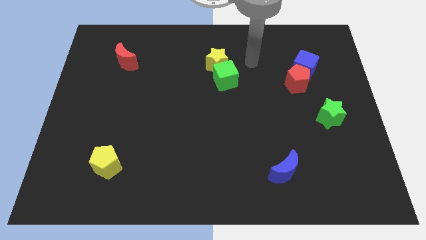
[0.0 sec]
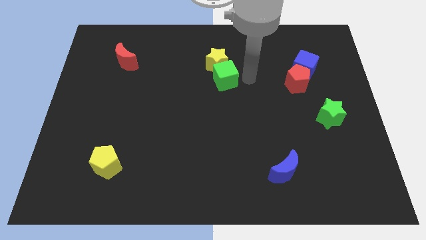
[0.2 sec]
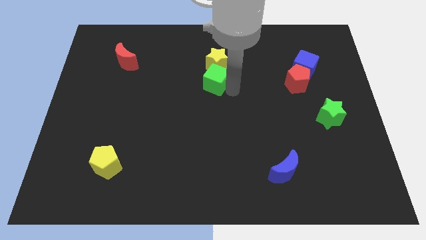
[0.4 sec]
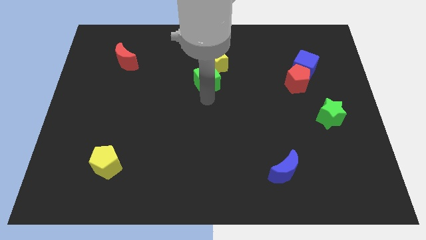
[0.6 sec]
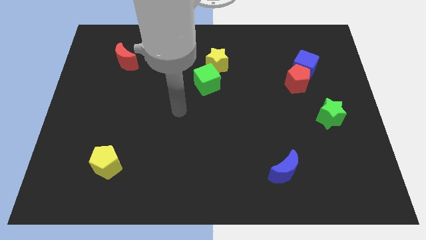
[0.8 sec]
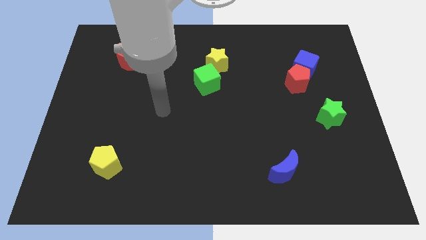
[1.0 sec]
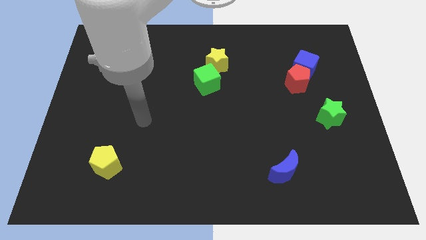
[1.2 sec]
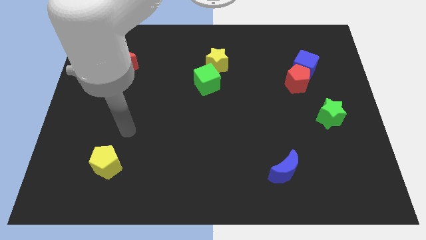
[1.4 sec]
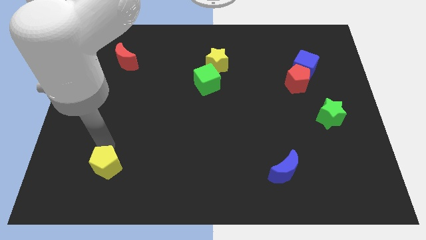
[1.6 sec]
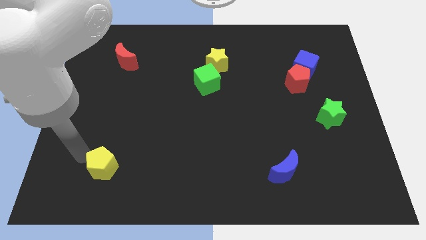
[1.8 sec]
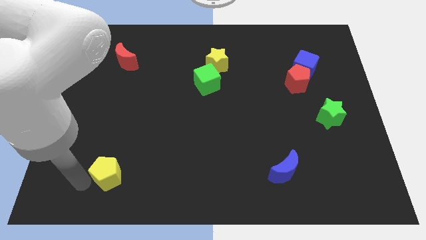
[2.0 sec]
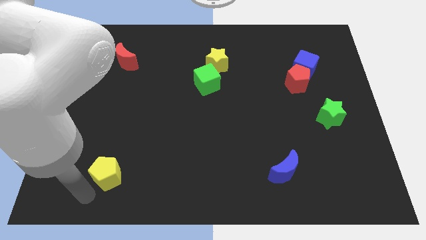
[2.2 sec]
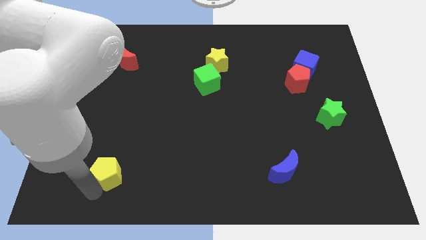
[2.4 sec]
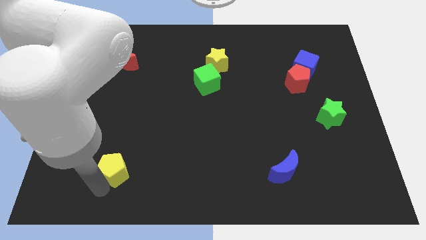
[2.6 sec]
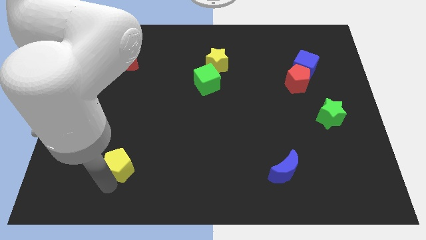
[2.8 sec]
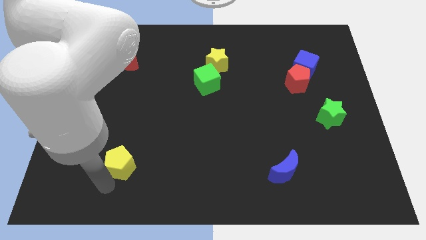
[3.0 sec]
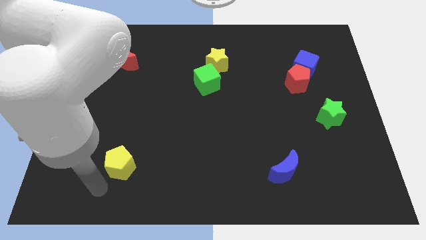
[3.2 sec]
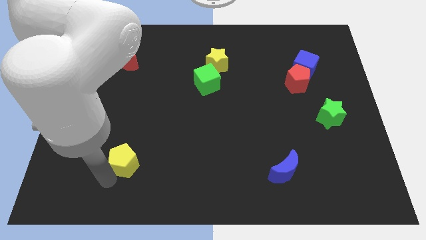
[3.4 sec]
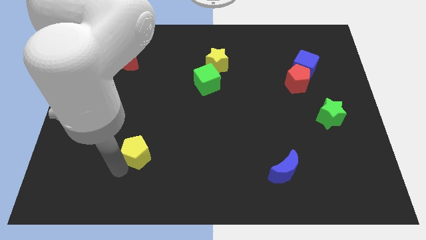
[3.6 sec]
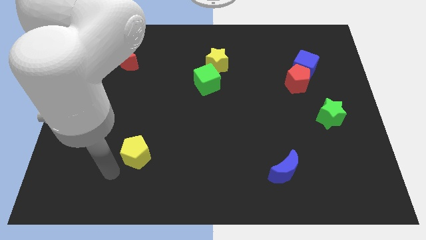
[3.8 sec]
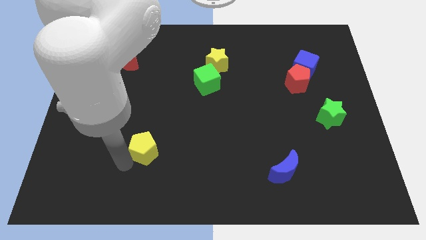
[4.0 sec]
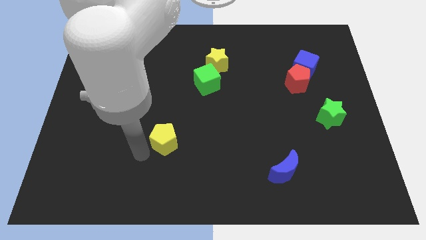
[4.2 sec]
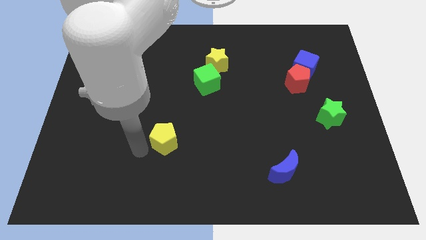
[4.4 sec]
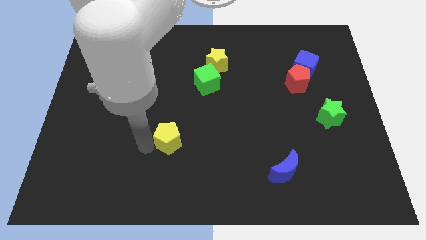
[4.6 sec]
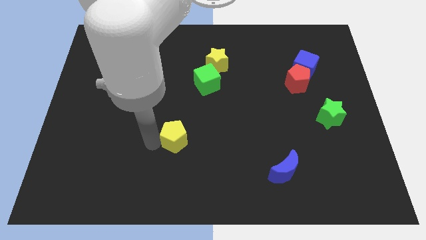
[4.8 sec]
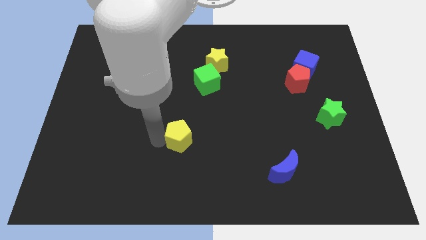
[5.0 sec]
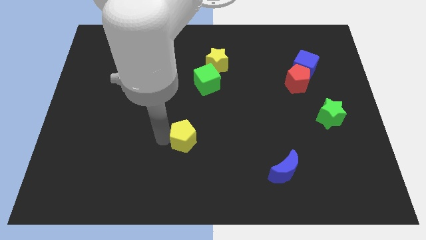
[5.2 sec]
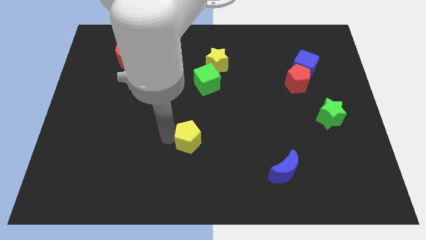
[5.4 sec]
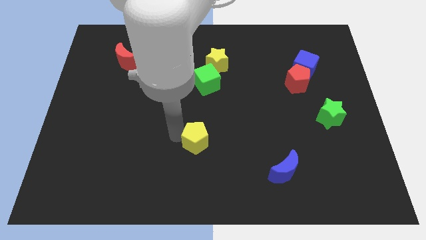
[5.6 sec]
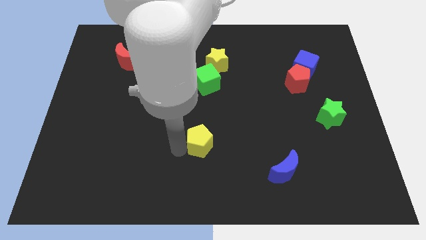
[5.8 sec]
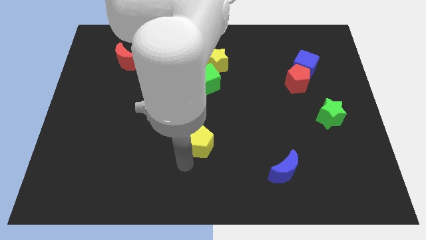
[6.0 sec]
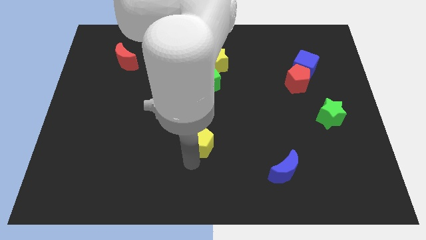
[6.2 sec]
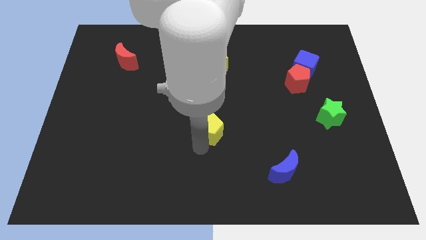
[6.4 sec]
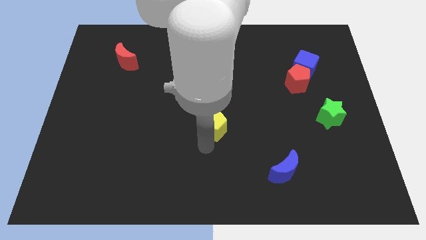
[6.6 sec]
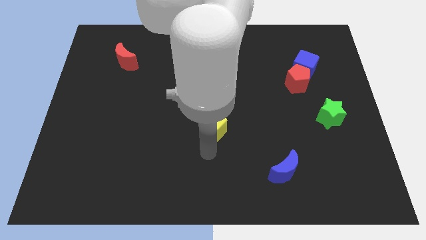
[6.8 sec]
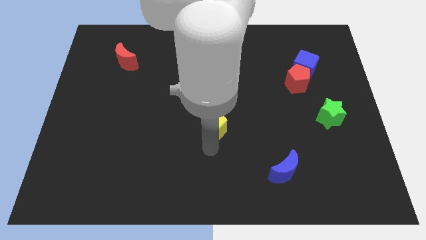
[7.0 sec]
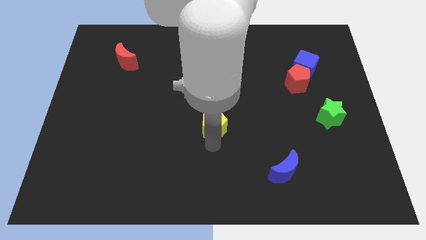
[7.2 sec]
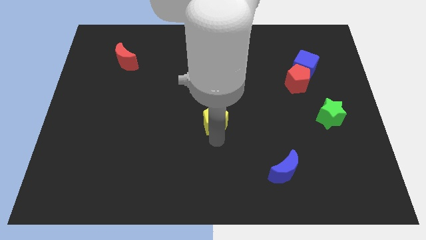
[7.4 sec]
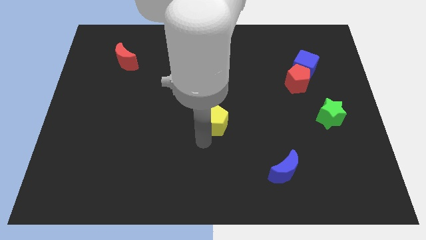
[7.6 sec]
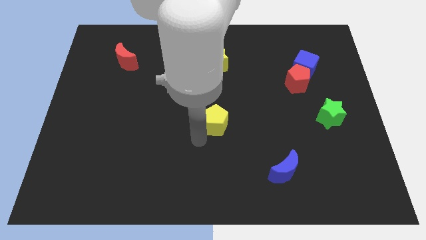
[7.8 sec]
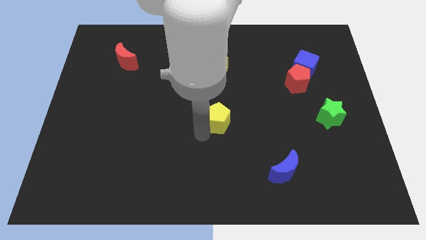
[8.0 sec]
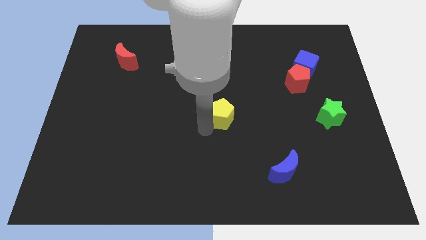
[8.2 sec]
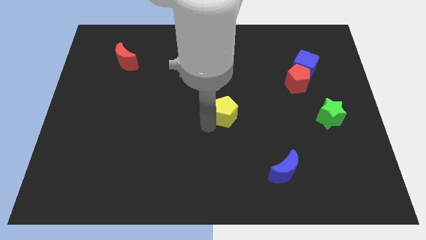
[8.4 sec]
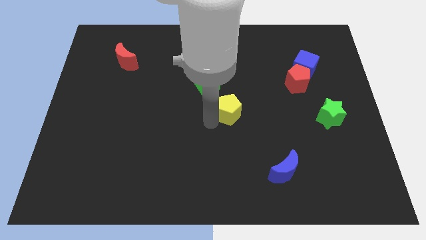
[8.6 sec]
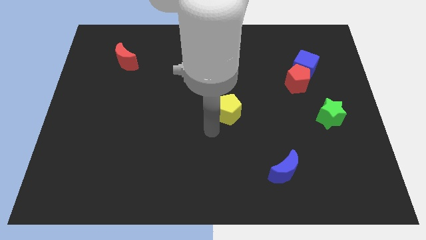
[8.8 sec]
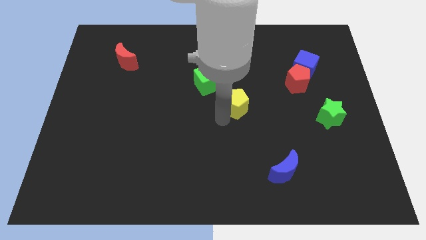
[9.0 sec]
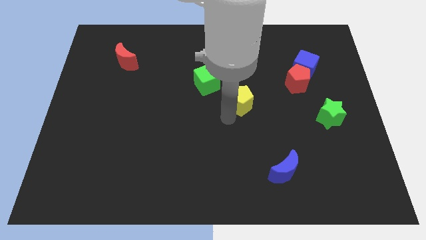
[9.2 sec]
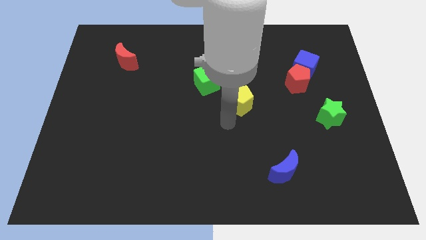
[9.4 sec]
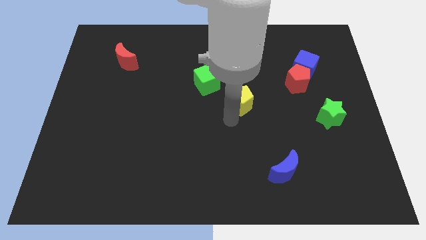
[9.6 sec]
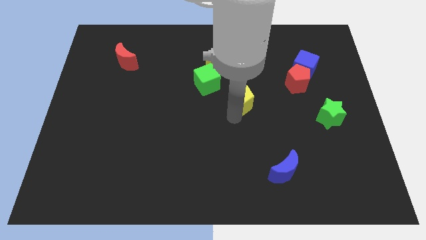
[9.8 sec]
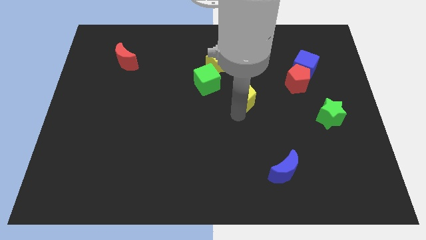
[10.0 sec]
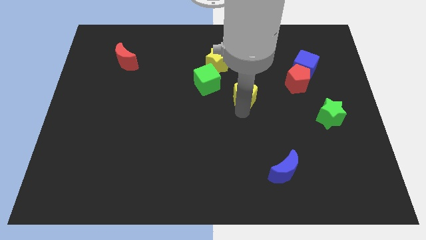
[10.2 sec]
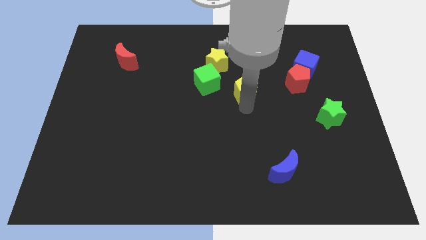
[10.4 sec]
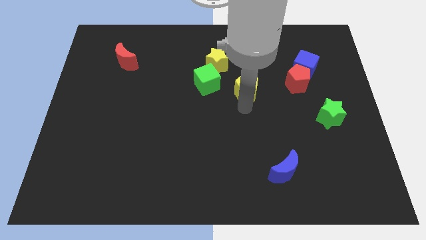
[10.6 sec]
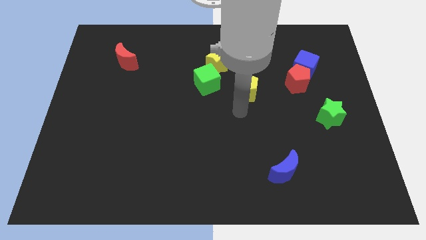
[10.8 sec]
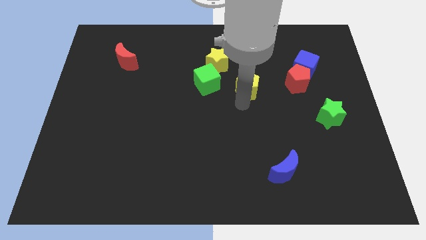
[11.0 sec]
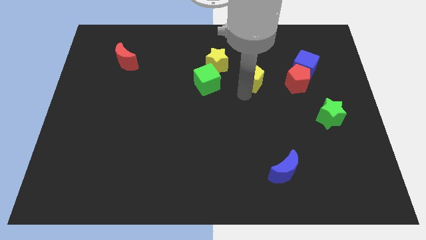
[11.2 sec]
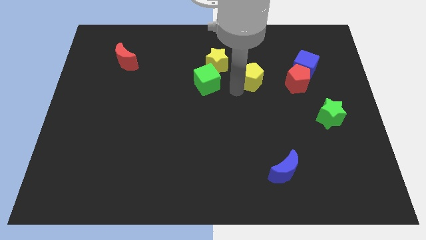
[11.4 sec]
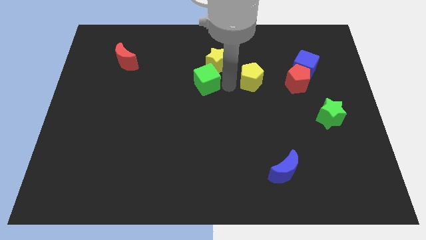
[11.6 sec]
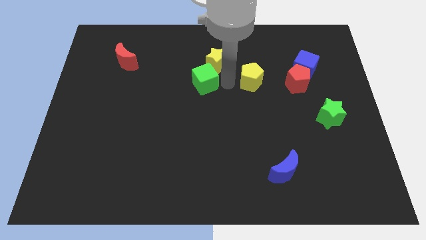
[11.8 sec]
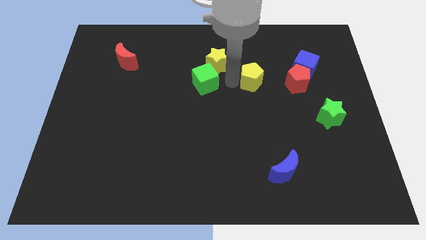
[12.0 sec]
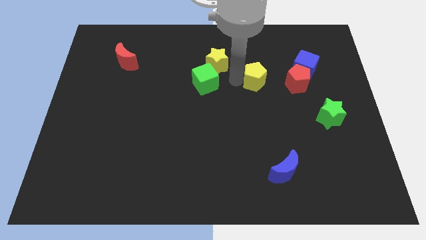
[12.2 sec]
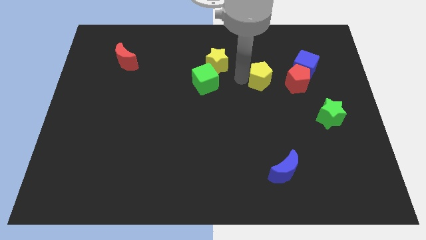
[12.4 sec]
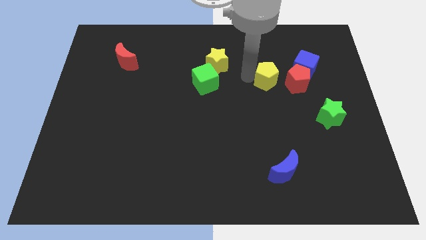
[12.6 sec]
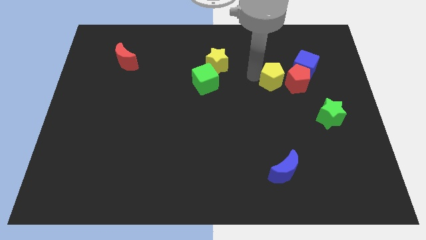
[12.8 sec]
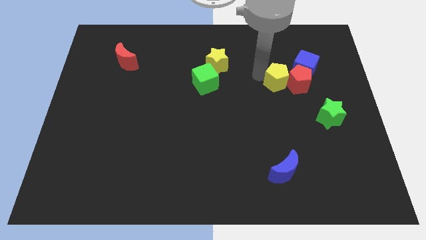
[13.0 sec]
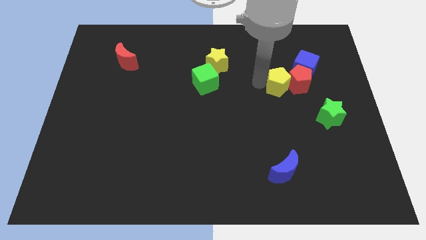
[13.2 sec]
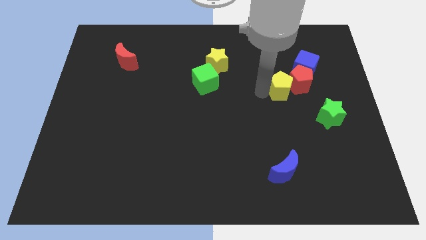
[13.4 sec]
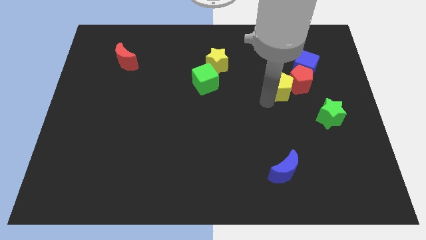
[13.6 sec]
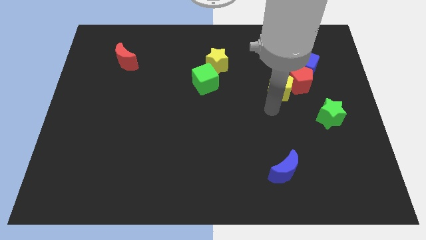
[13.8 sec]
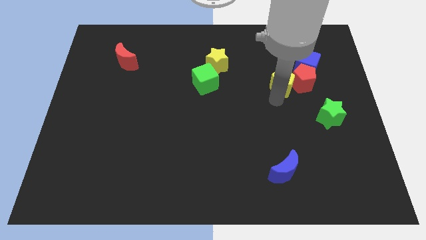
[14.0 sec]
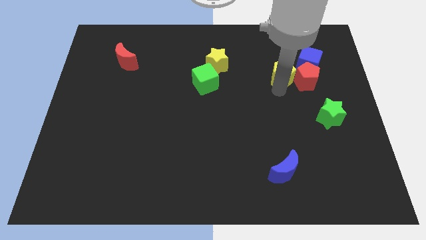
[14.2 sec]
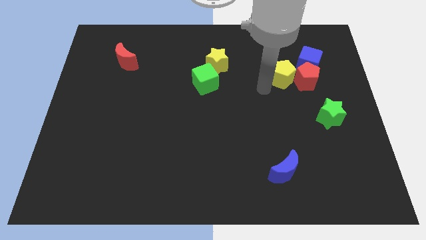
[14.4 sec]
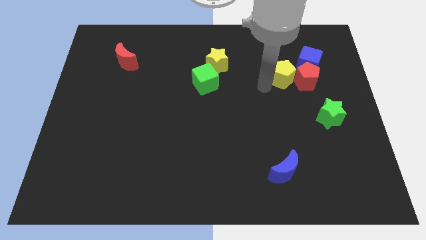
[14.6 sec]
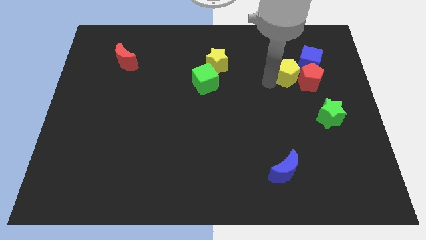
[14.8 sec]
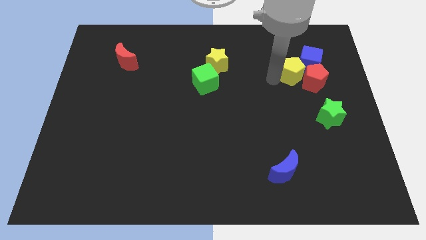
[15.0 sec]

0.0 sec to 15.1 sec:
move the yellow pentagon to the blue cube

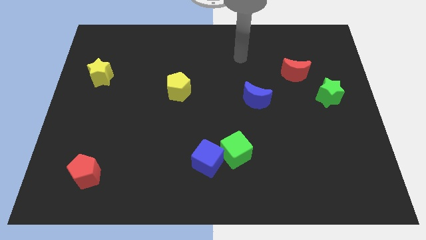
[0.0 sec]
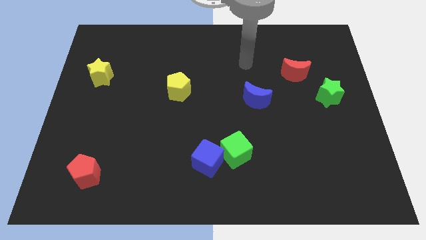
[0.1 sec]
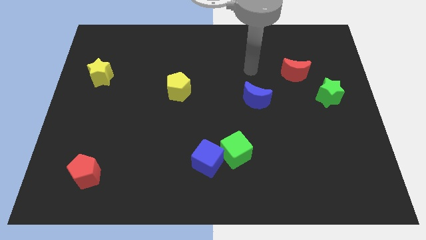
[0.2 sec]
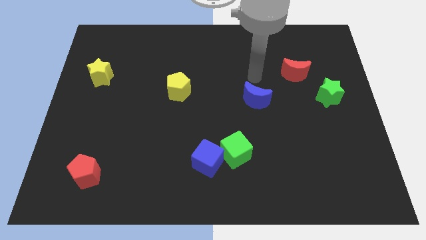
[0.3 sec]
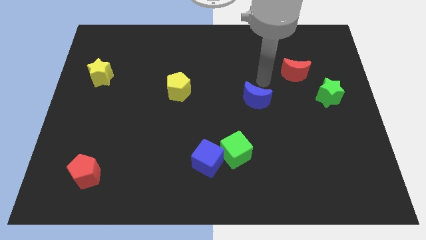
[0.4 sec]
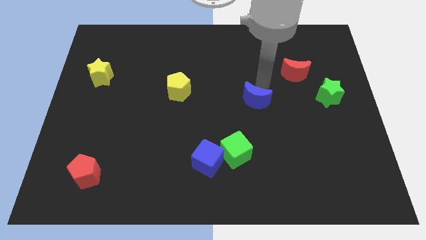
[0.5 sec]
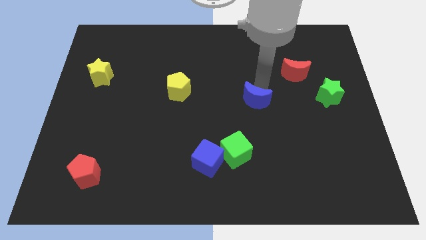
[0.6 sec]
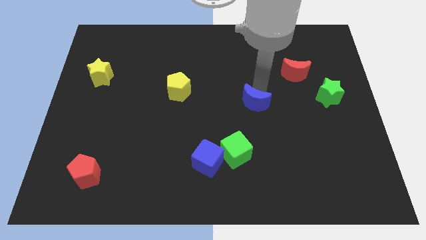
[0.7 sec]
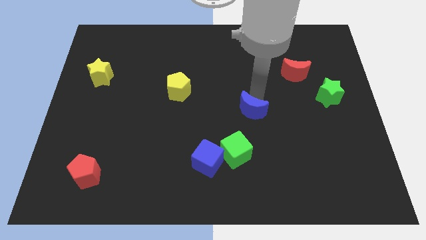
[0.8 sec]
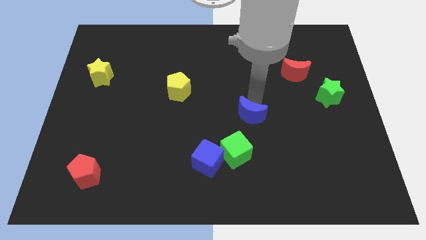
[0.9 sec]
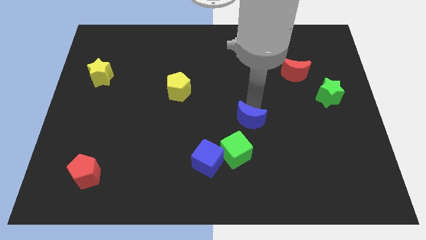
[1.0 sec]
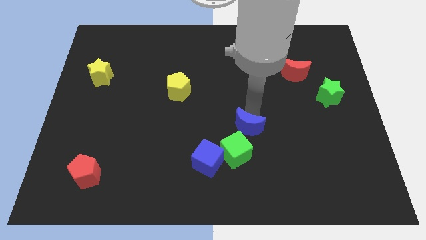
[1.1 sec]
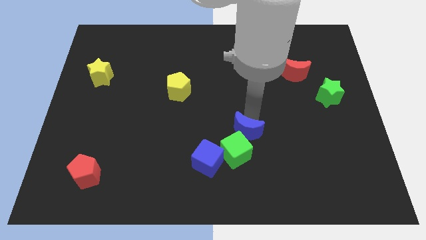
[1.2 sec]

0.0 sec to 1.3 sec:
push the blue moon next to the green cube
